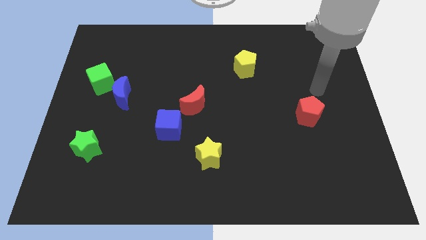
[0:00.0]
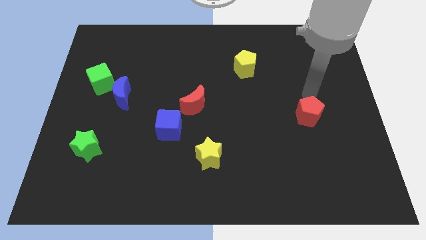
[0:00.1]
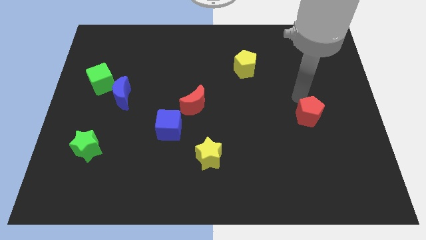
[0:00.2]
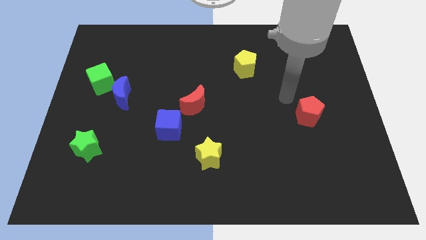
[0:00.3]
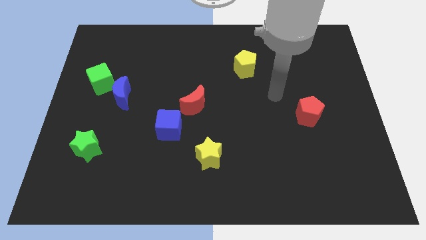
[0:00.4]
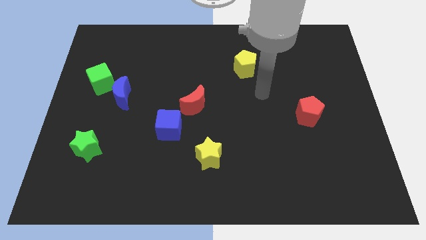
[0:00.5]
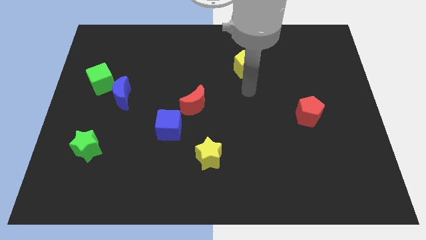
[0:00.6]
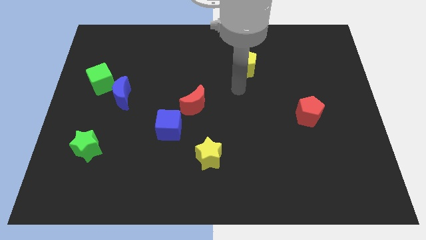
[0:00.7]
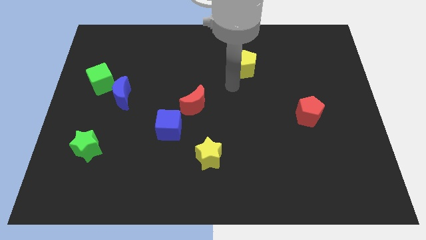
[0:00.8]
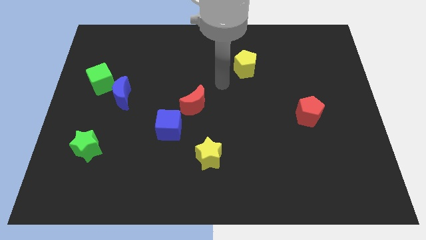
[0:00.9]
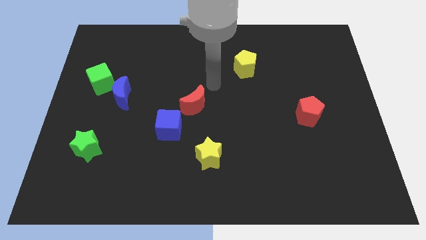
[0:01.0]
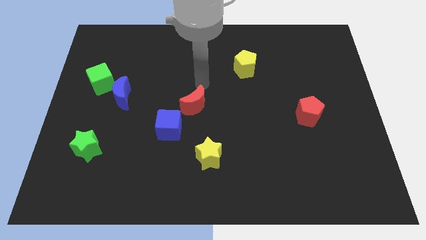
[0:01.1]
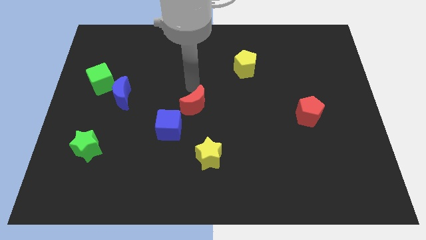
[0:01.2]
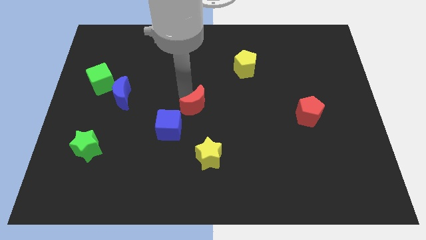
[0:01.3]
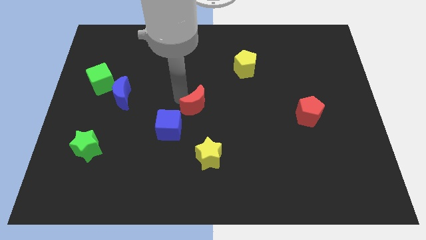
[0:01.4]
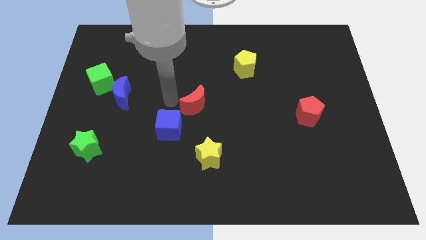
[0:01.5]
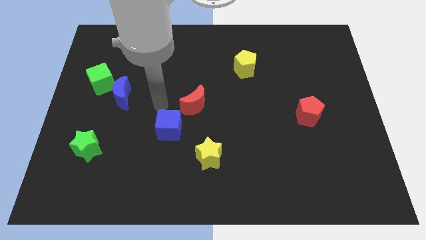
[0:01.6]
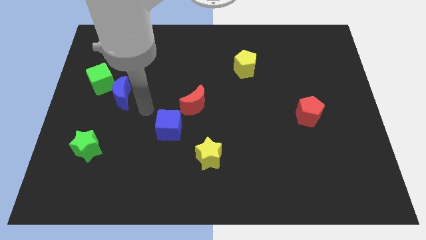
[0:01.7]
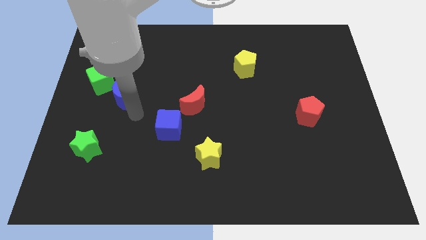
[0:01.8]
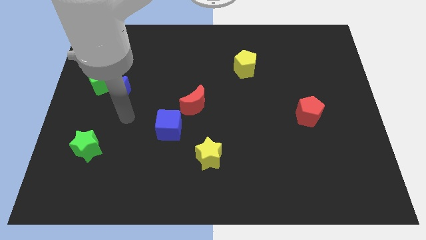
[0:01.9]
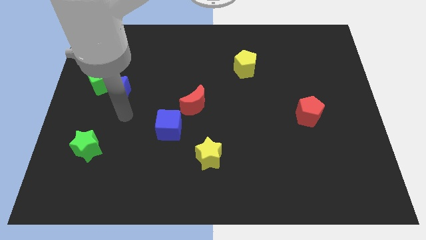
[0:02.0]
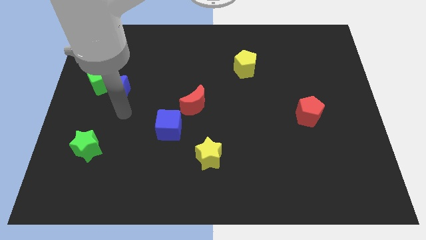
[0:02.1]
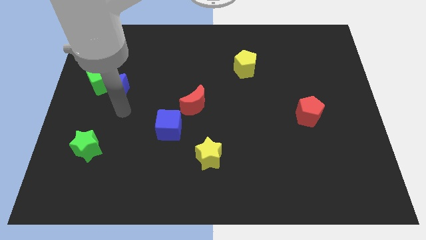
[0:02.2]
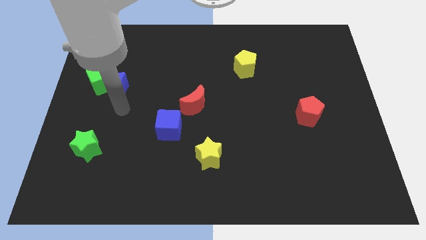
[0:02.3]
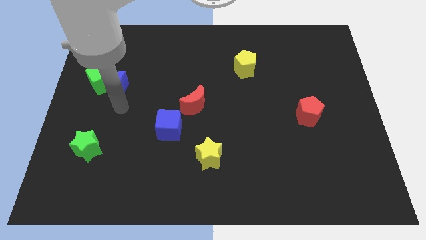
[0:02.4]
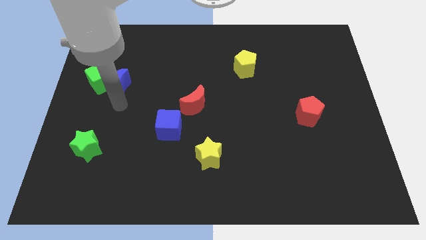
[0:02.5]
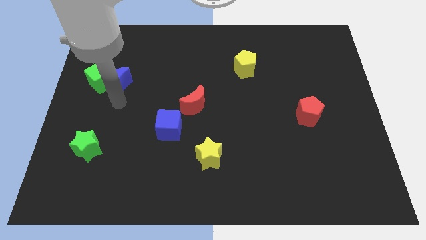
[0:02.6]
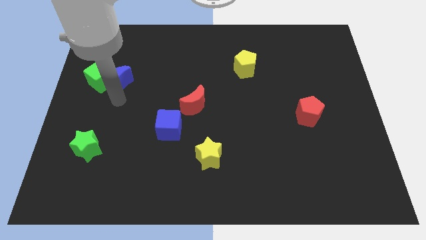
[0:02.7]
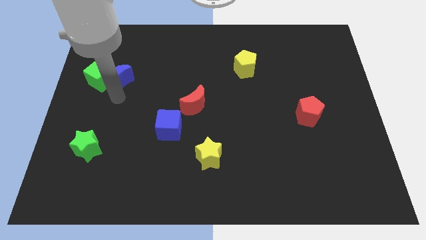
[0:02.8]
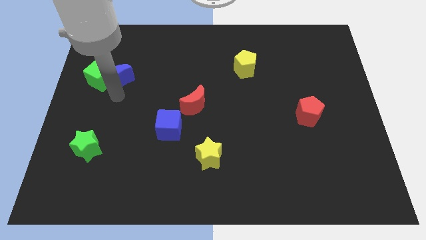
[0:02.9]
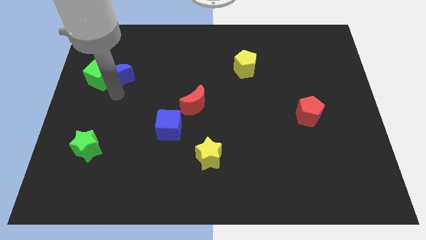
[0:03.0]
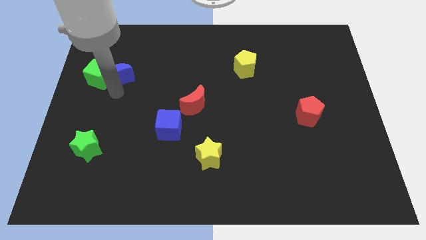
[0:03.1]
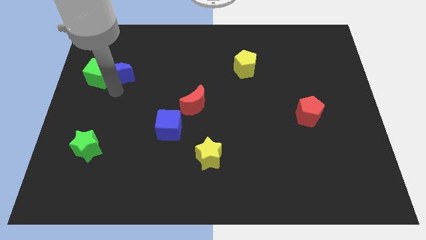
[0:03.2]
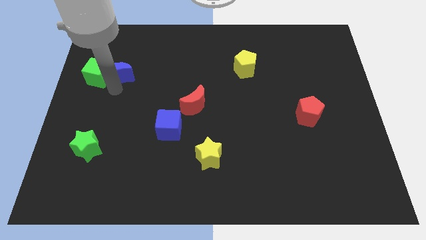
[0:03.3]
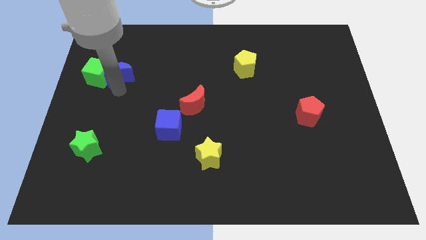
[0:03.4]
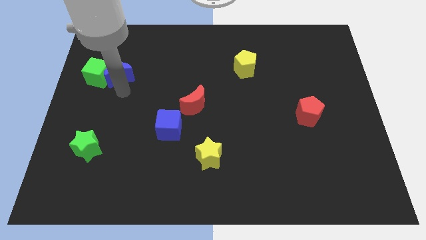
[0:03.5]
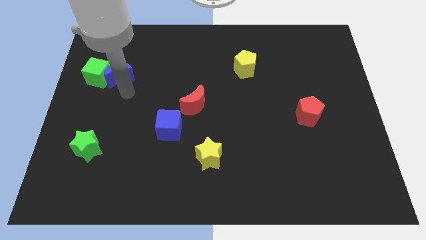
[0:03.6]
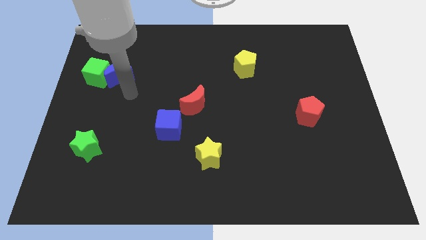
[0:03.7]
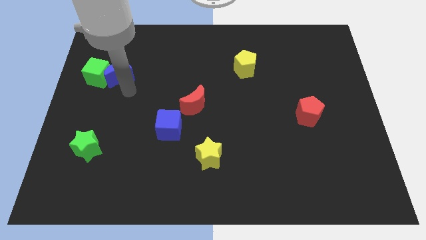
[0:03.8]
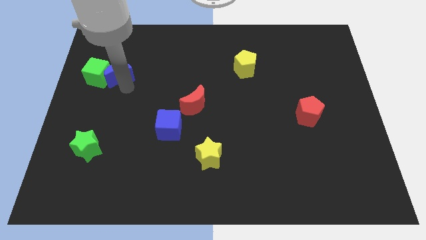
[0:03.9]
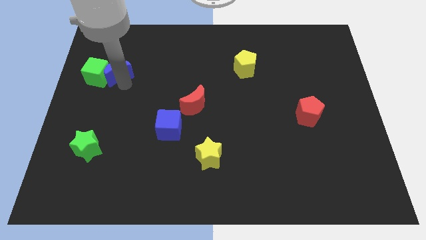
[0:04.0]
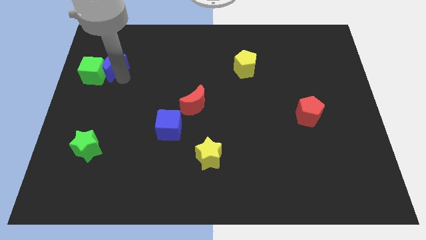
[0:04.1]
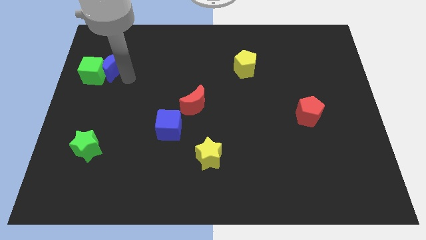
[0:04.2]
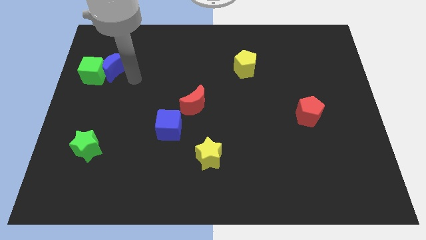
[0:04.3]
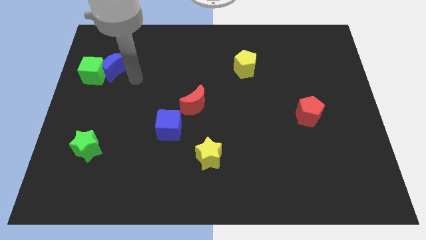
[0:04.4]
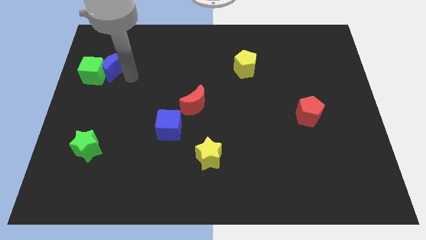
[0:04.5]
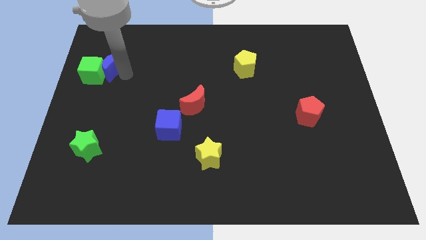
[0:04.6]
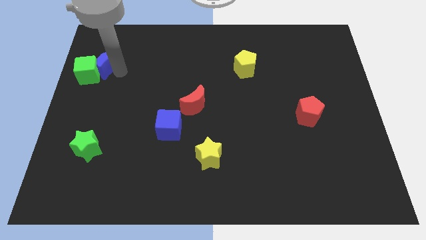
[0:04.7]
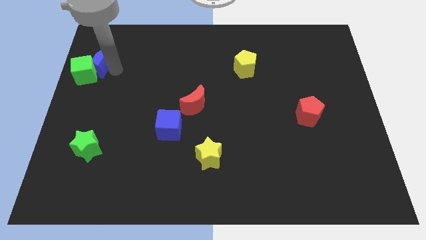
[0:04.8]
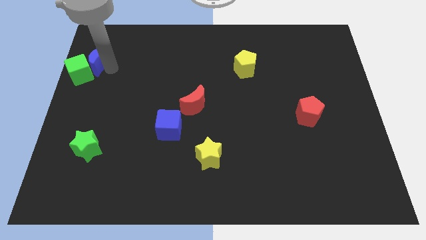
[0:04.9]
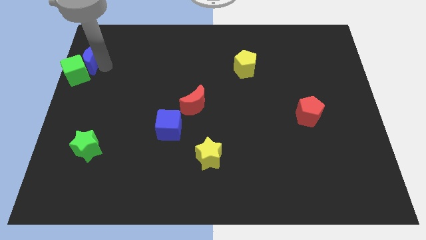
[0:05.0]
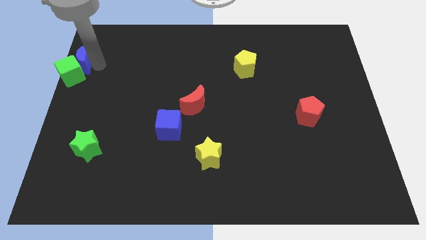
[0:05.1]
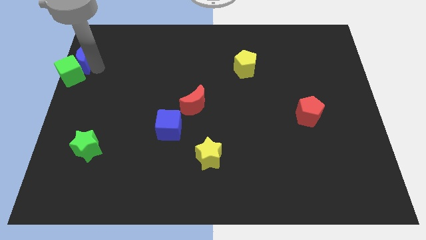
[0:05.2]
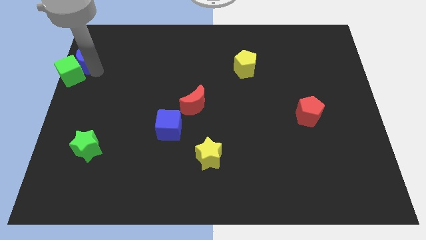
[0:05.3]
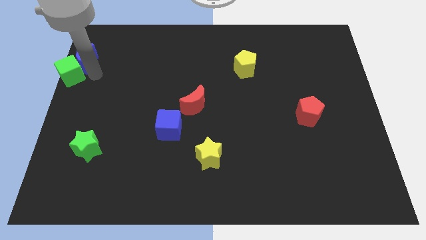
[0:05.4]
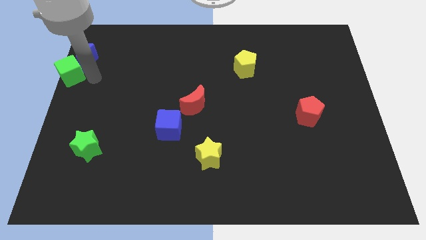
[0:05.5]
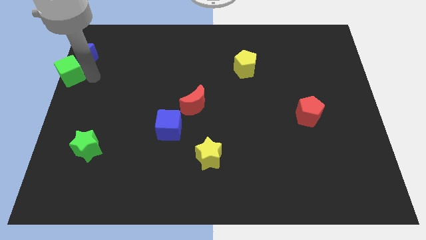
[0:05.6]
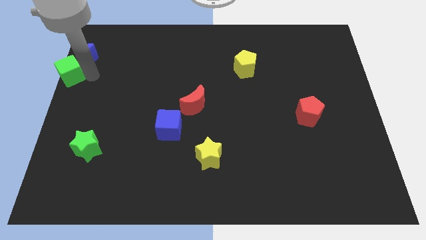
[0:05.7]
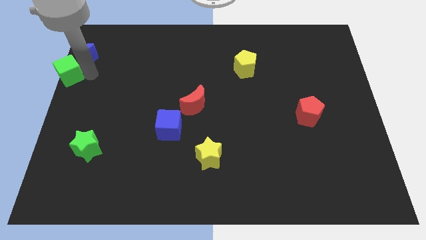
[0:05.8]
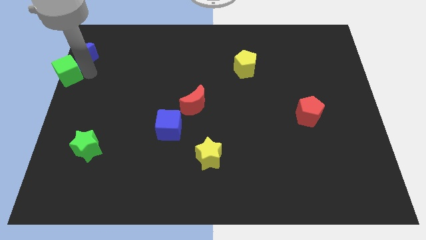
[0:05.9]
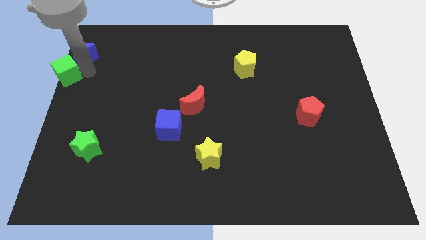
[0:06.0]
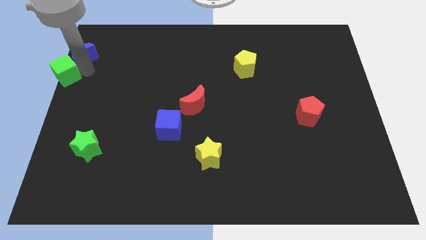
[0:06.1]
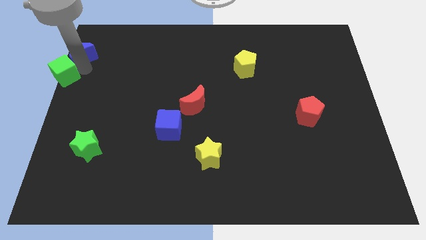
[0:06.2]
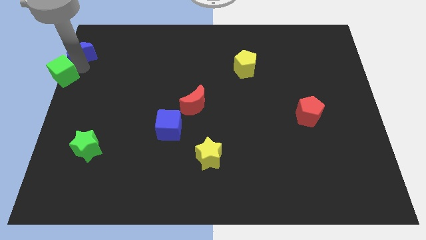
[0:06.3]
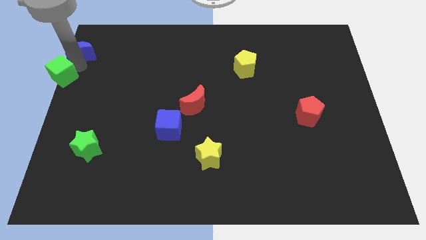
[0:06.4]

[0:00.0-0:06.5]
push the blue moon to the upper left corner
